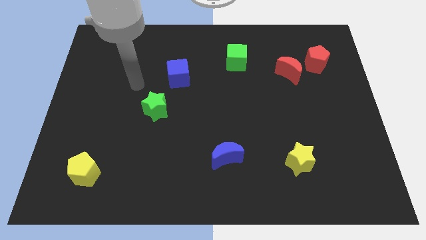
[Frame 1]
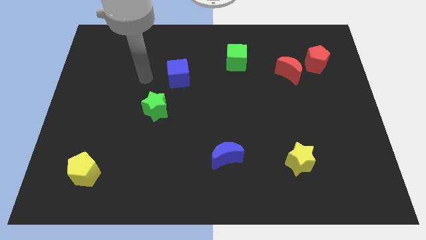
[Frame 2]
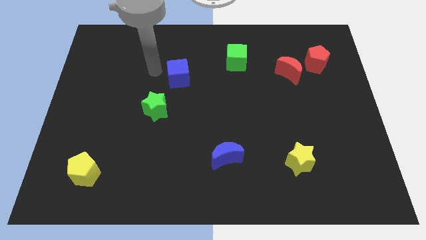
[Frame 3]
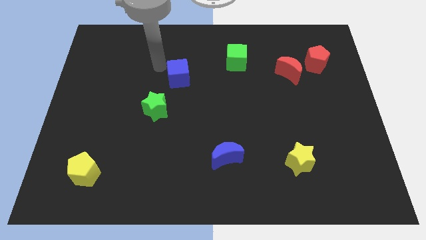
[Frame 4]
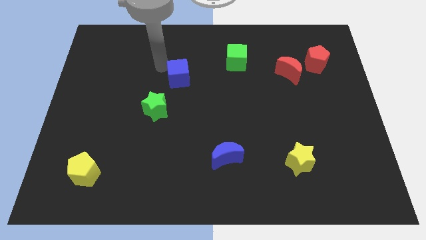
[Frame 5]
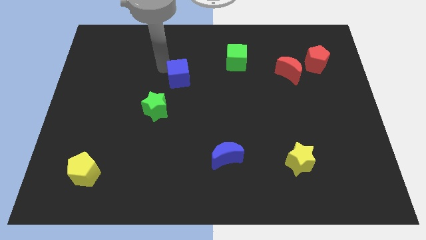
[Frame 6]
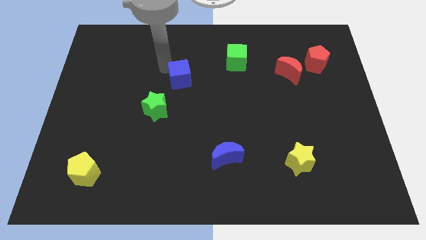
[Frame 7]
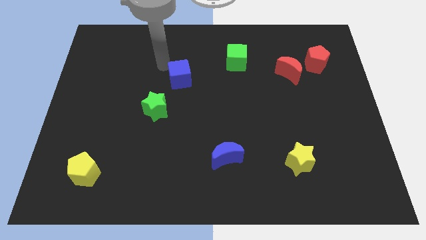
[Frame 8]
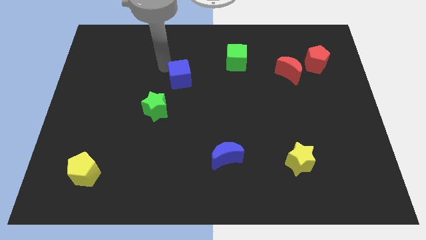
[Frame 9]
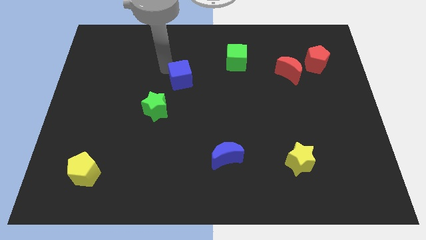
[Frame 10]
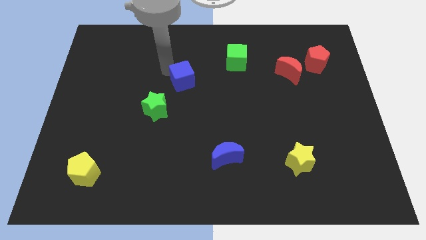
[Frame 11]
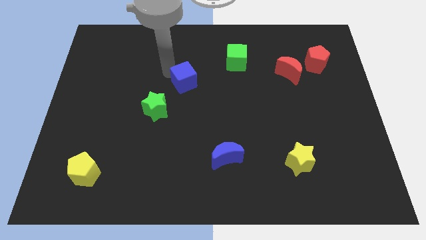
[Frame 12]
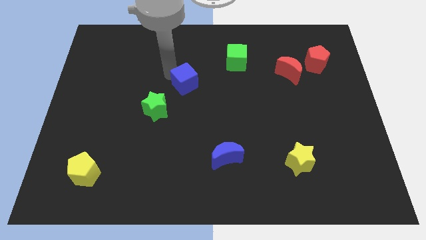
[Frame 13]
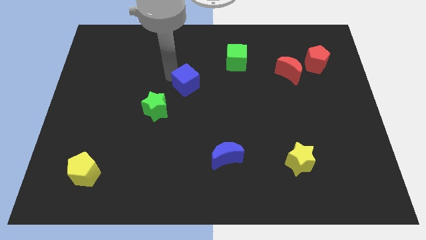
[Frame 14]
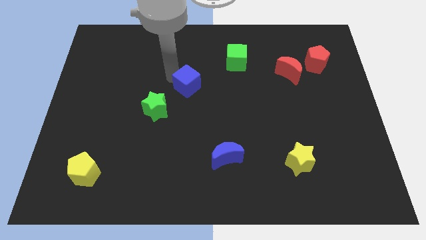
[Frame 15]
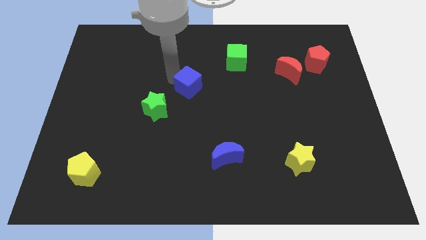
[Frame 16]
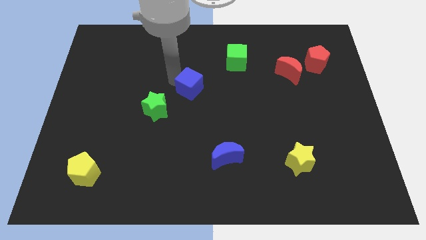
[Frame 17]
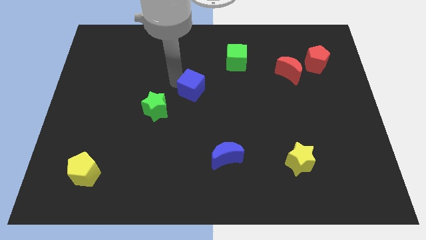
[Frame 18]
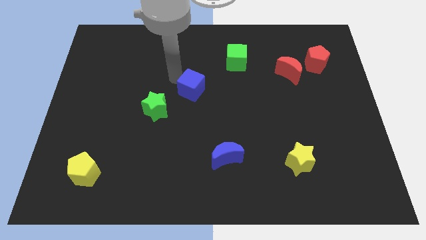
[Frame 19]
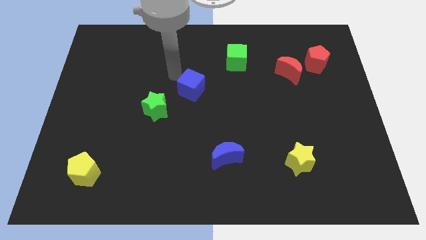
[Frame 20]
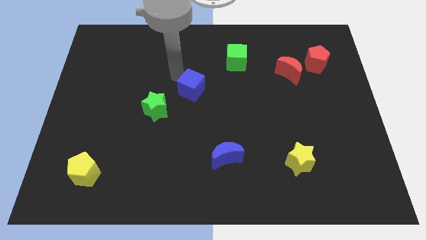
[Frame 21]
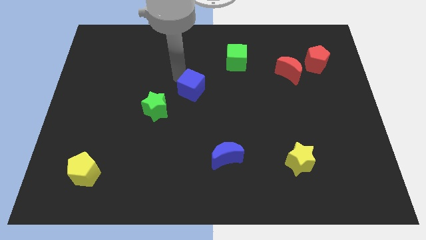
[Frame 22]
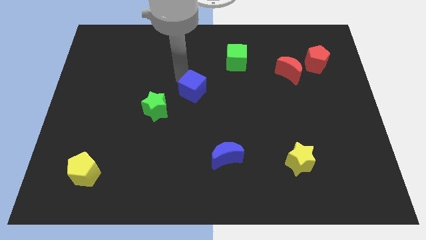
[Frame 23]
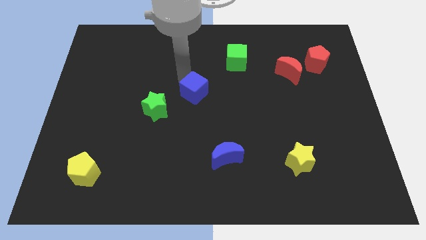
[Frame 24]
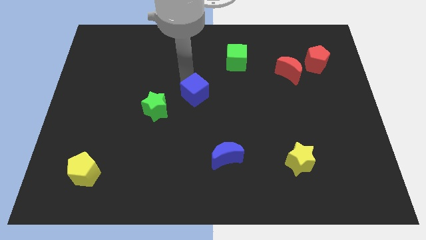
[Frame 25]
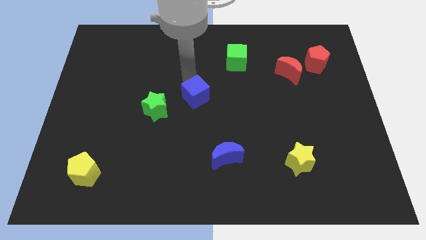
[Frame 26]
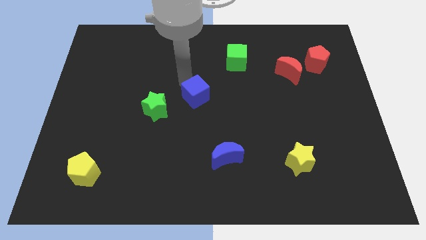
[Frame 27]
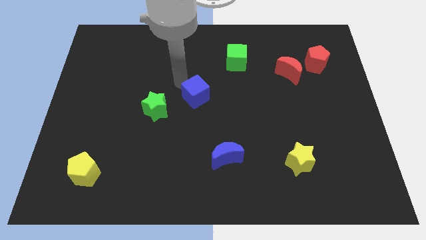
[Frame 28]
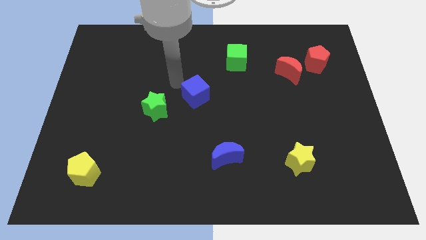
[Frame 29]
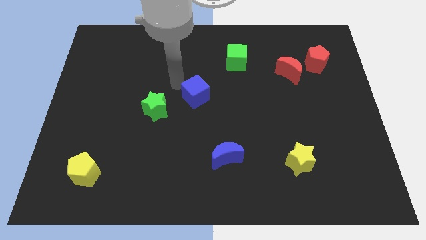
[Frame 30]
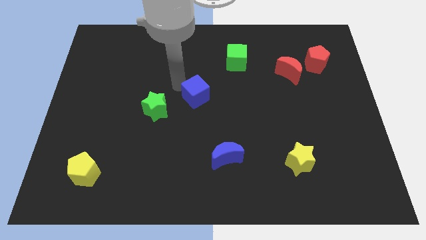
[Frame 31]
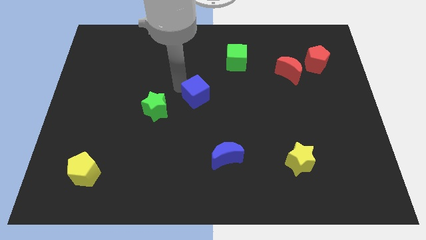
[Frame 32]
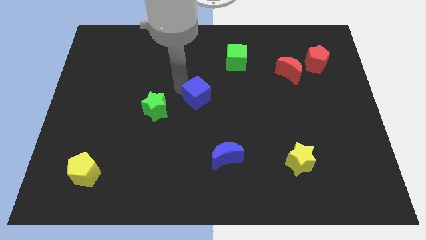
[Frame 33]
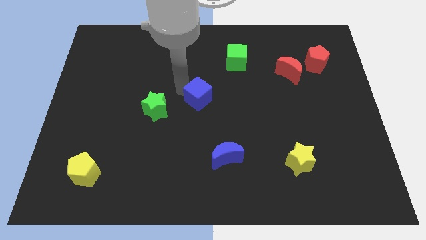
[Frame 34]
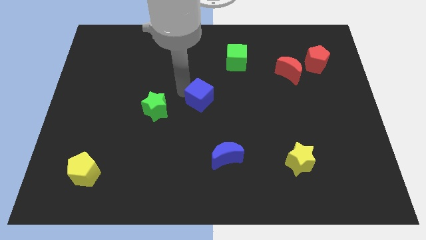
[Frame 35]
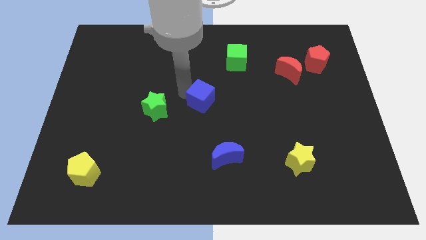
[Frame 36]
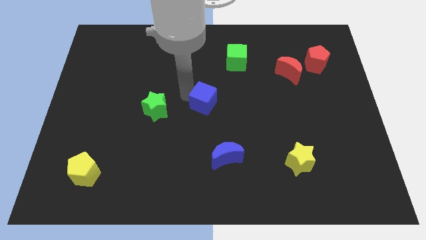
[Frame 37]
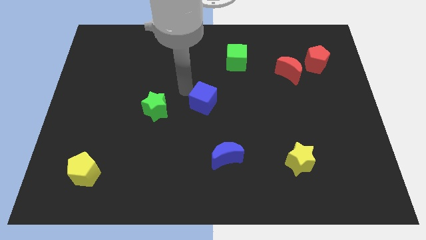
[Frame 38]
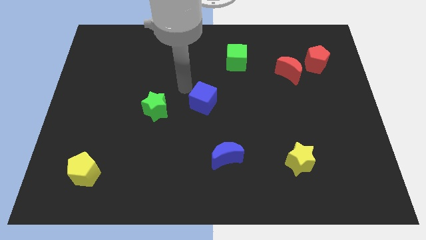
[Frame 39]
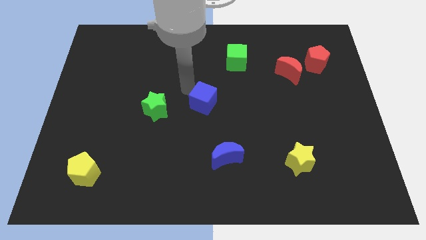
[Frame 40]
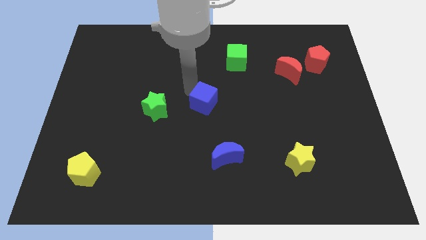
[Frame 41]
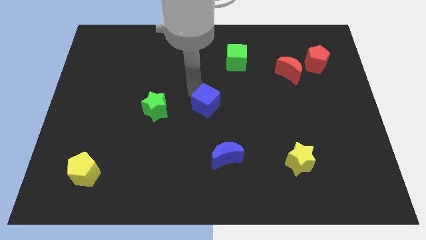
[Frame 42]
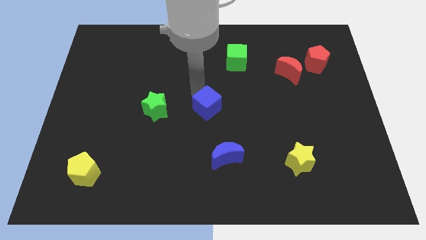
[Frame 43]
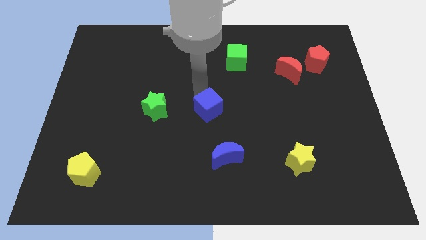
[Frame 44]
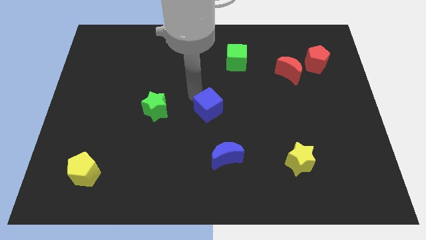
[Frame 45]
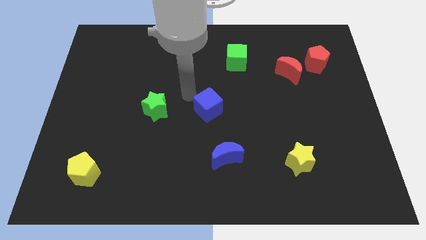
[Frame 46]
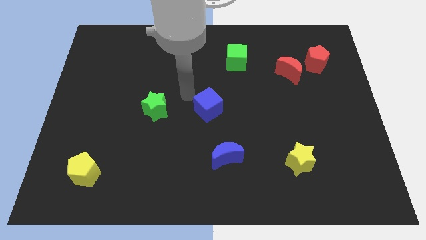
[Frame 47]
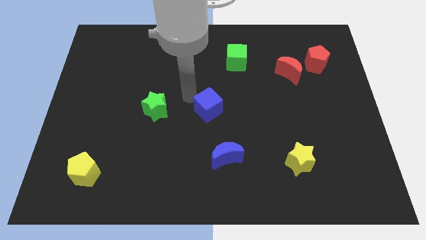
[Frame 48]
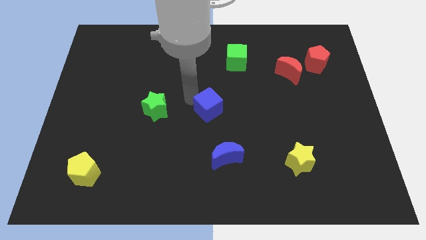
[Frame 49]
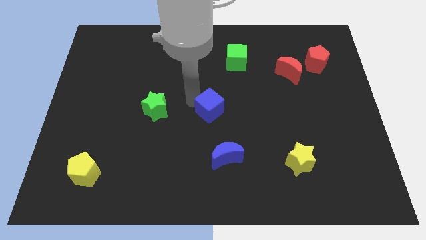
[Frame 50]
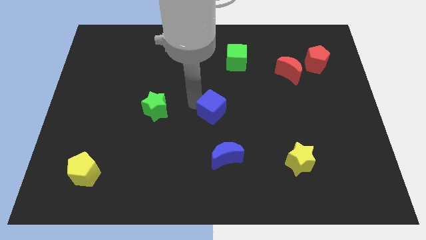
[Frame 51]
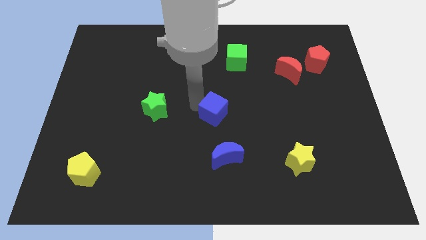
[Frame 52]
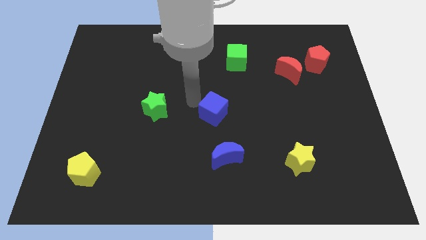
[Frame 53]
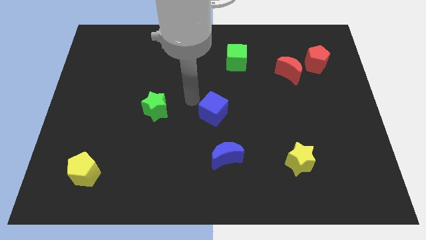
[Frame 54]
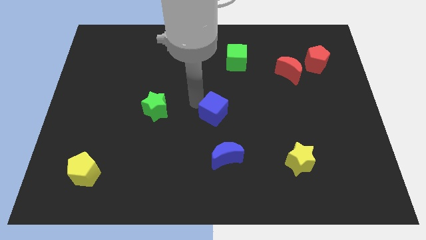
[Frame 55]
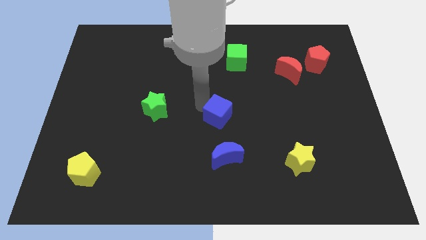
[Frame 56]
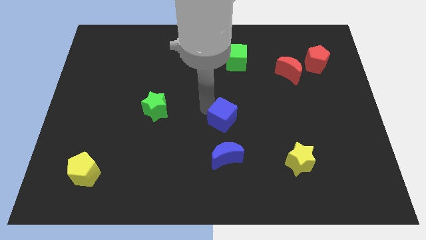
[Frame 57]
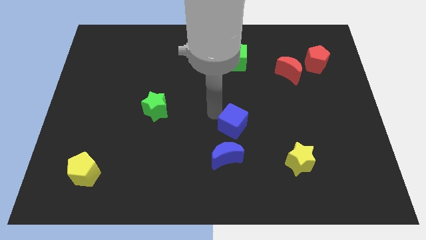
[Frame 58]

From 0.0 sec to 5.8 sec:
move the blue cube down and right diagonally

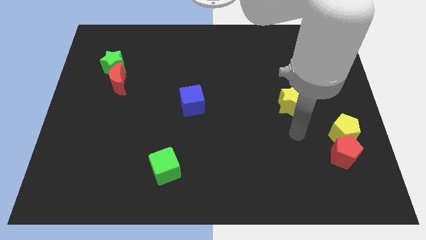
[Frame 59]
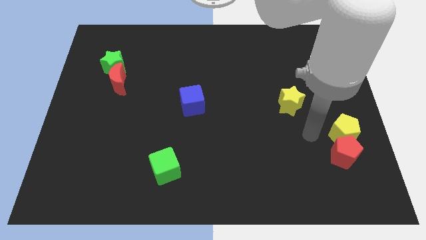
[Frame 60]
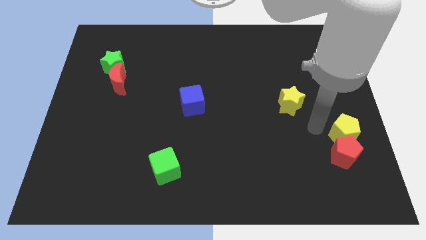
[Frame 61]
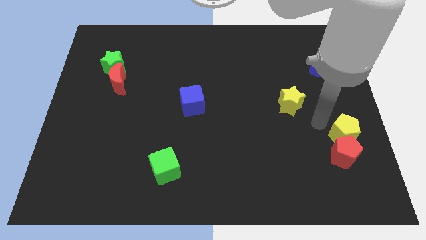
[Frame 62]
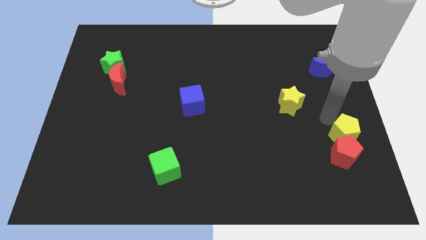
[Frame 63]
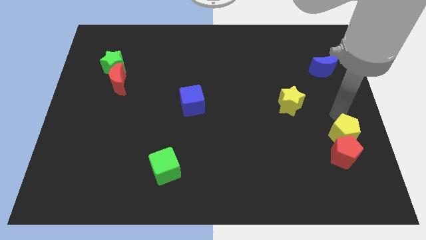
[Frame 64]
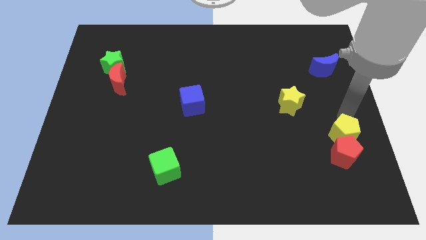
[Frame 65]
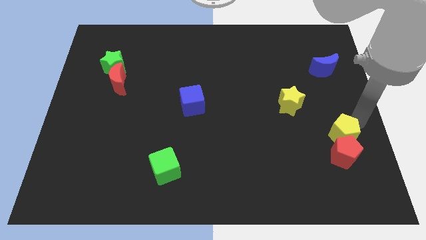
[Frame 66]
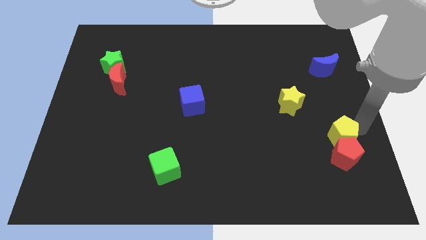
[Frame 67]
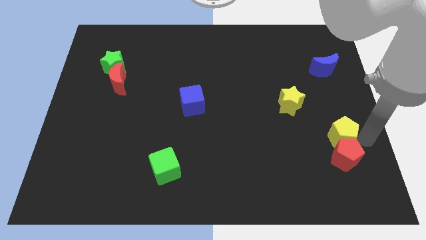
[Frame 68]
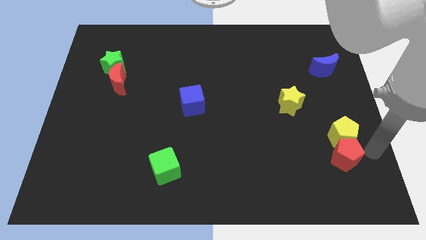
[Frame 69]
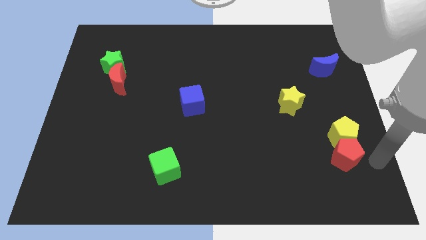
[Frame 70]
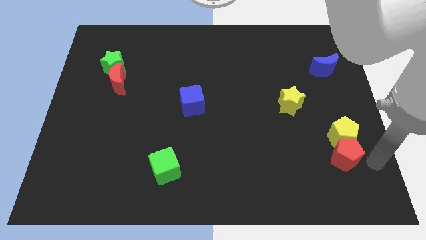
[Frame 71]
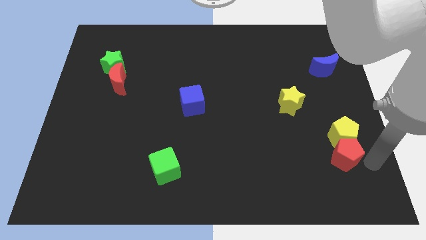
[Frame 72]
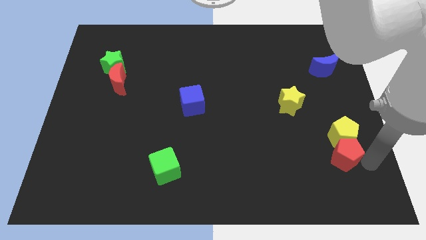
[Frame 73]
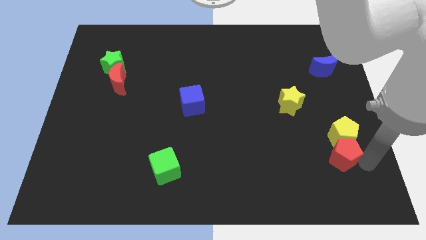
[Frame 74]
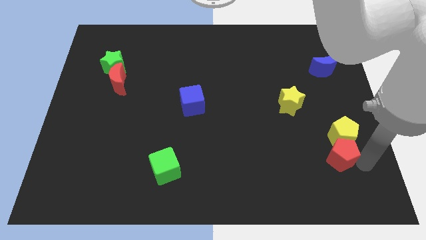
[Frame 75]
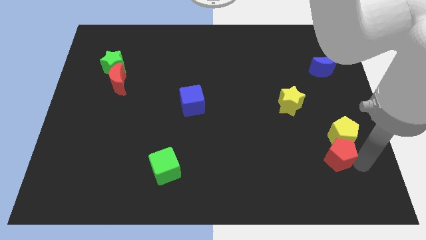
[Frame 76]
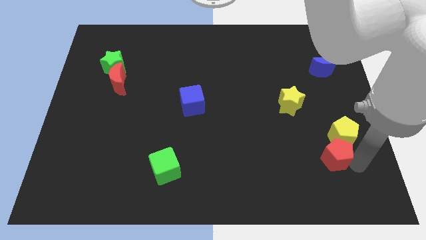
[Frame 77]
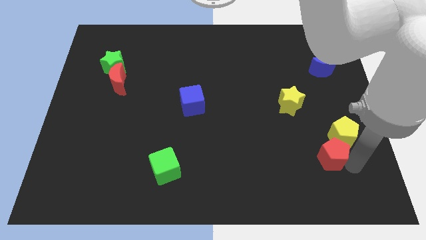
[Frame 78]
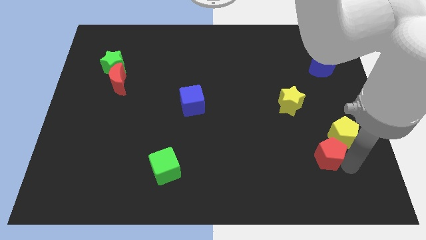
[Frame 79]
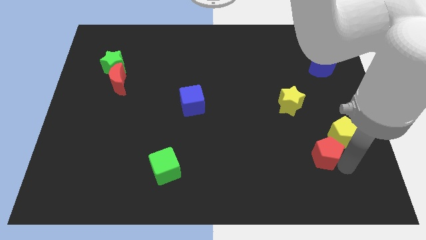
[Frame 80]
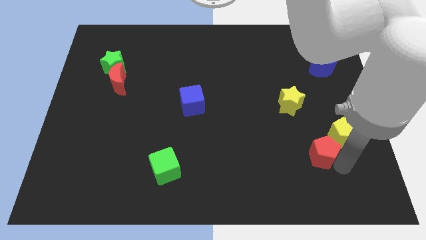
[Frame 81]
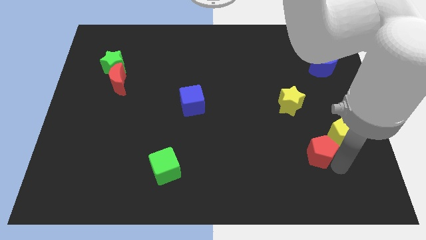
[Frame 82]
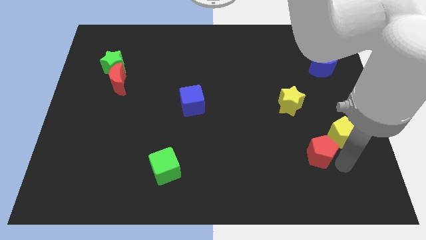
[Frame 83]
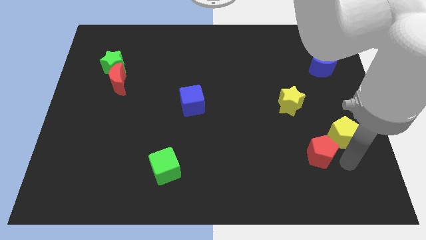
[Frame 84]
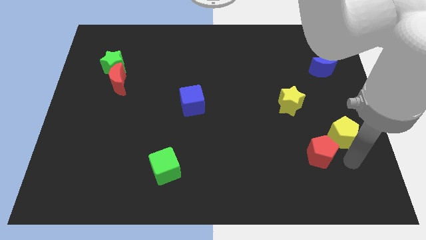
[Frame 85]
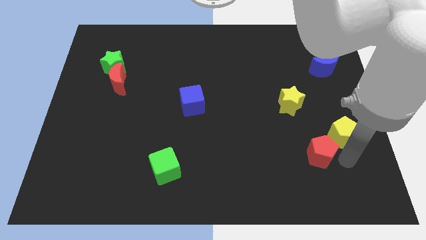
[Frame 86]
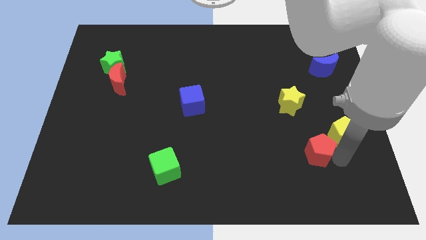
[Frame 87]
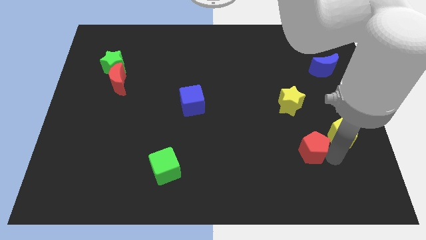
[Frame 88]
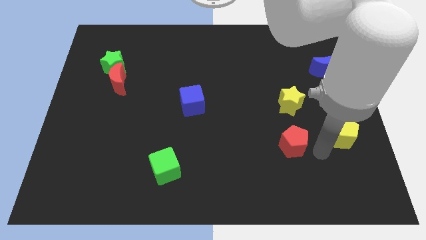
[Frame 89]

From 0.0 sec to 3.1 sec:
slightly move the red pentagon left
